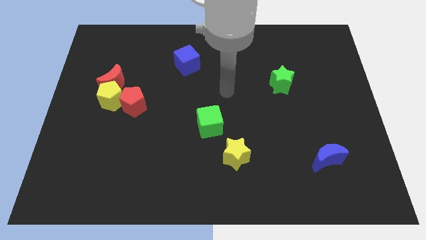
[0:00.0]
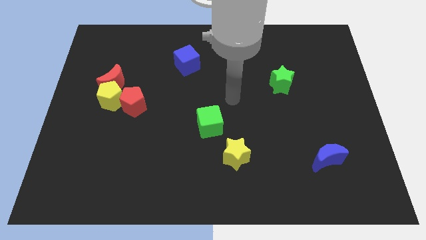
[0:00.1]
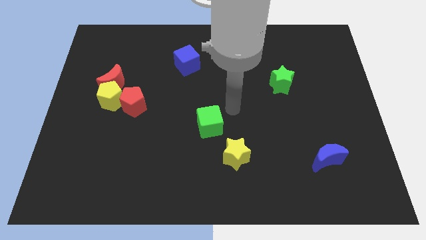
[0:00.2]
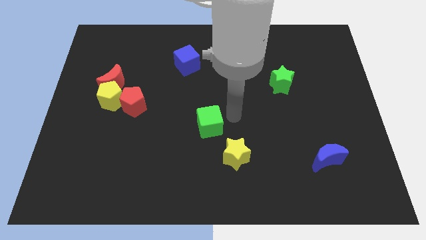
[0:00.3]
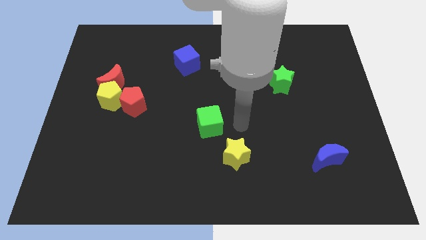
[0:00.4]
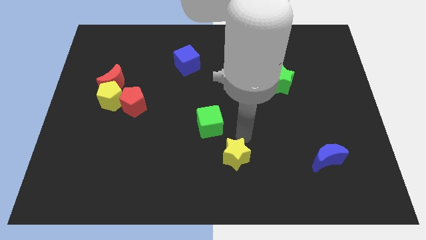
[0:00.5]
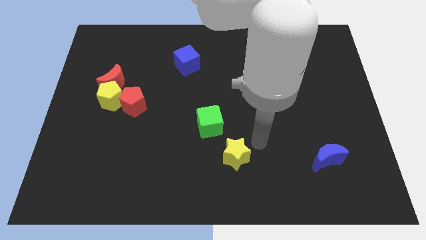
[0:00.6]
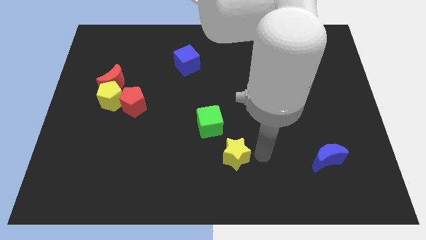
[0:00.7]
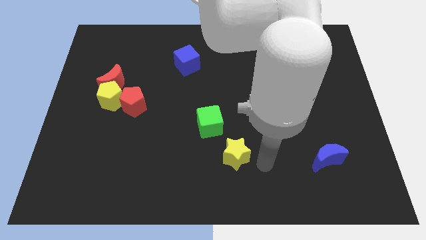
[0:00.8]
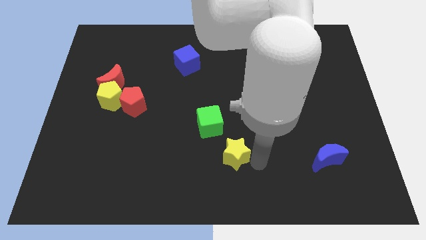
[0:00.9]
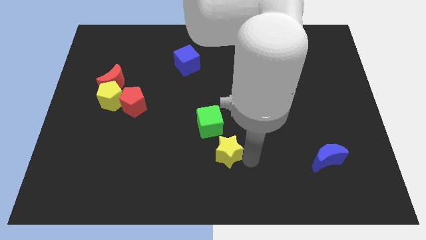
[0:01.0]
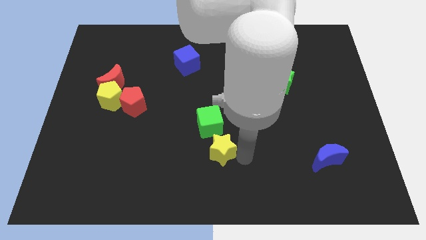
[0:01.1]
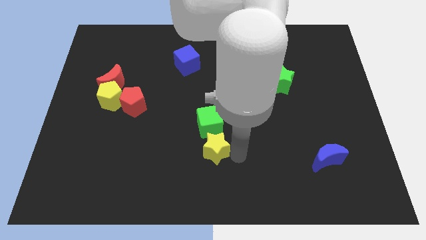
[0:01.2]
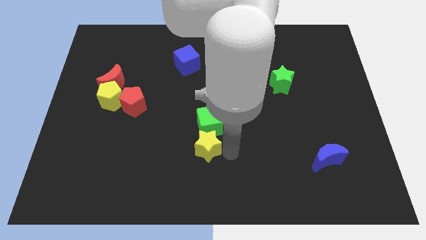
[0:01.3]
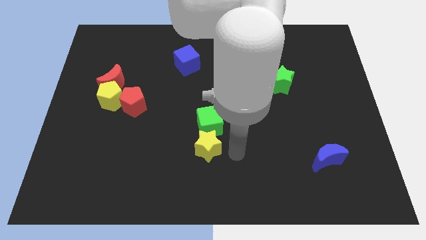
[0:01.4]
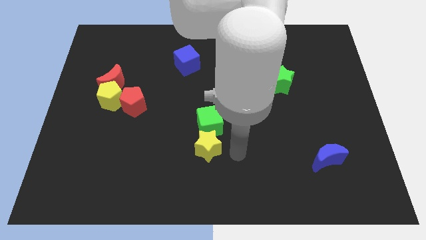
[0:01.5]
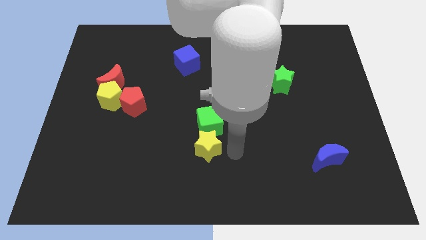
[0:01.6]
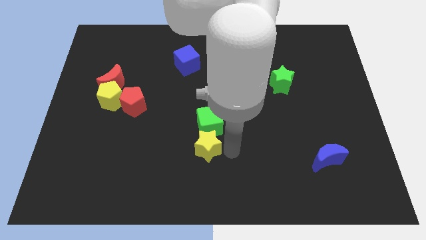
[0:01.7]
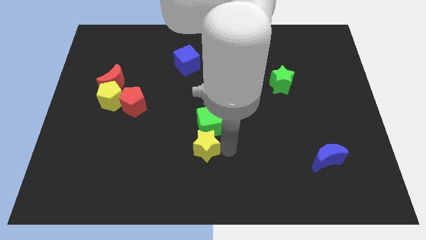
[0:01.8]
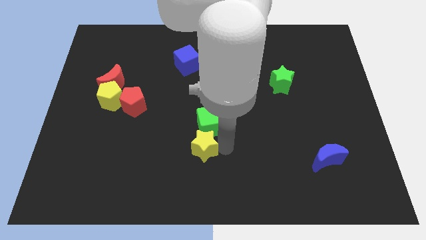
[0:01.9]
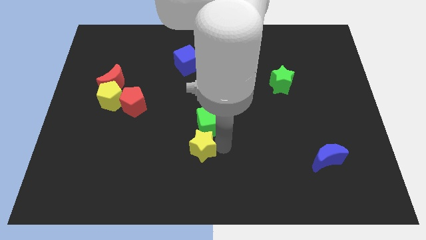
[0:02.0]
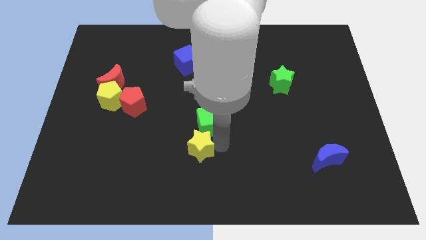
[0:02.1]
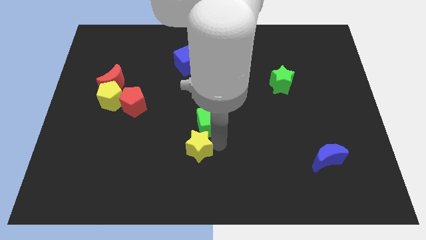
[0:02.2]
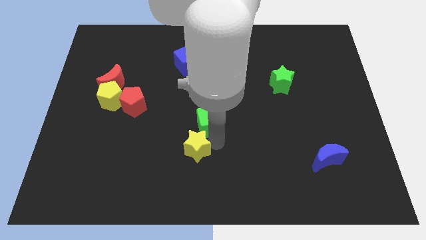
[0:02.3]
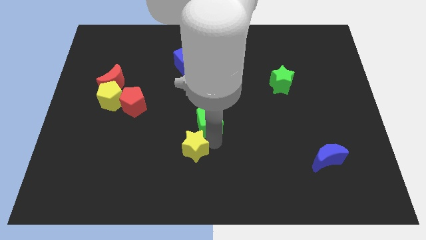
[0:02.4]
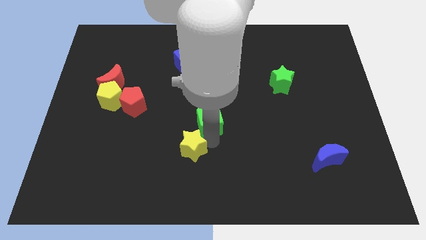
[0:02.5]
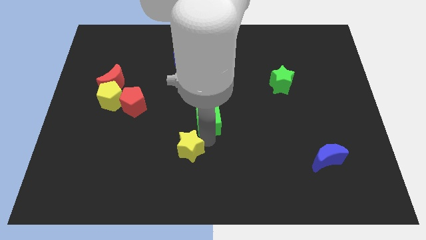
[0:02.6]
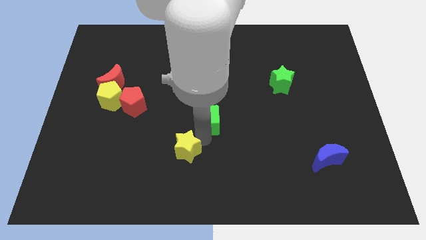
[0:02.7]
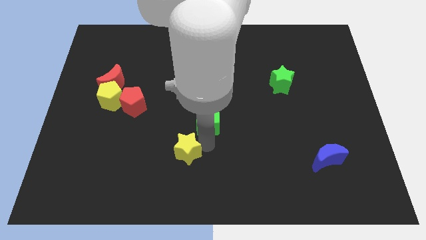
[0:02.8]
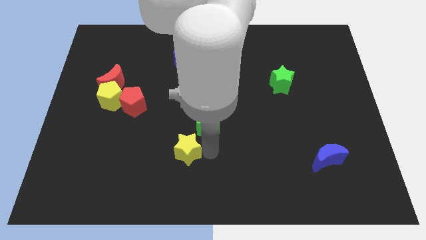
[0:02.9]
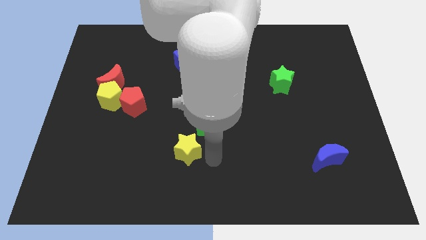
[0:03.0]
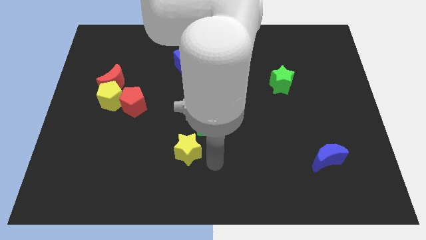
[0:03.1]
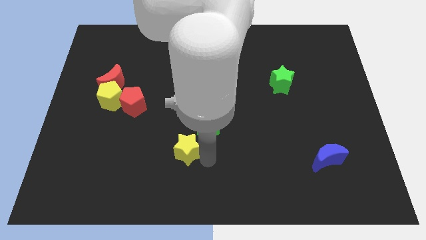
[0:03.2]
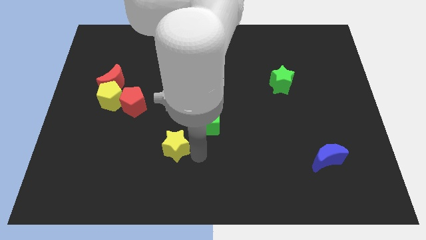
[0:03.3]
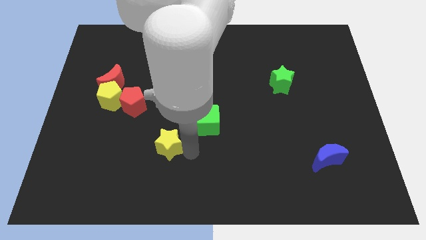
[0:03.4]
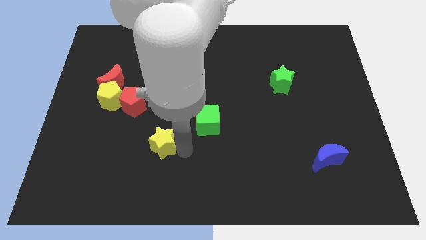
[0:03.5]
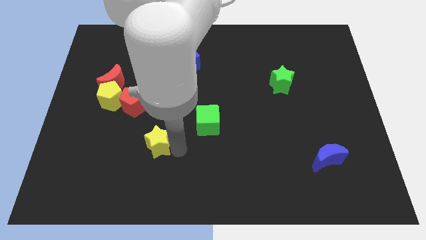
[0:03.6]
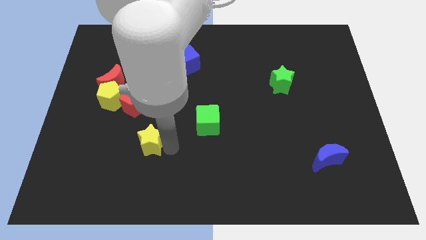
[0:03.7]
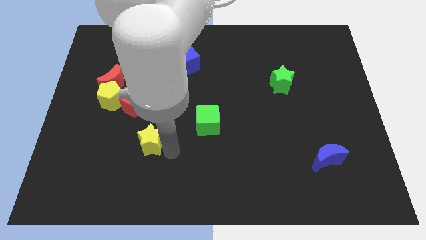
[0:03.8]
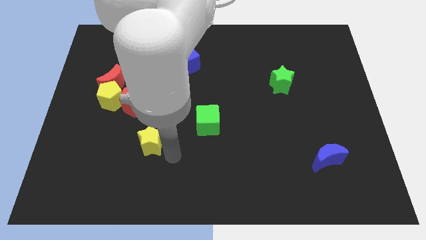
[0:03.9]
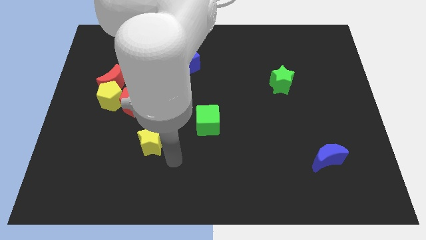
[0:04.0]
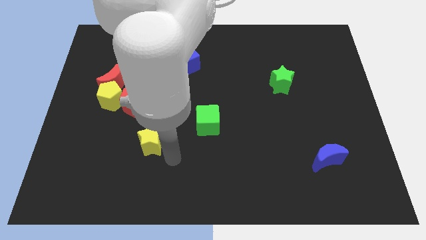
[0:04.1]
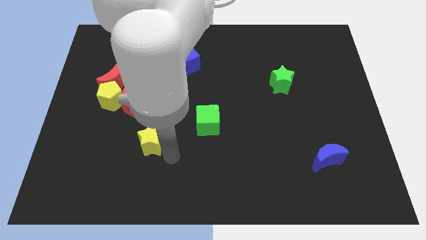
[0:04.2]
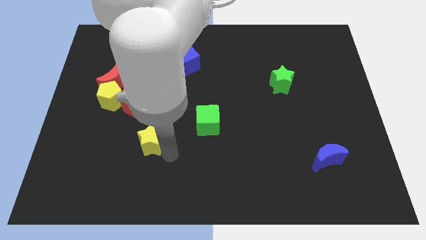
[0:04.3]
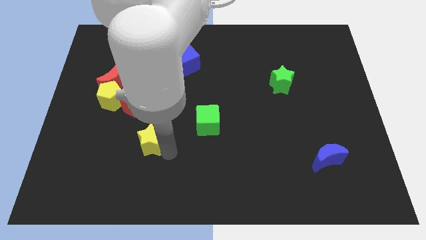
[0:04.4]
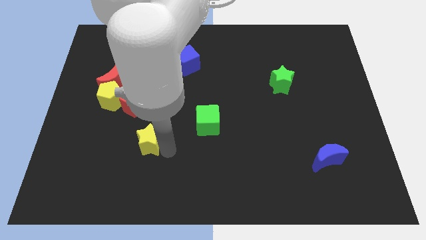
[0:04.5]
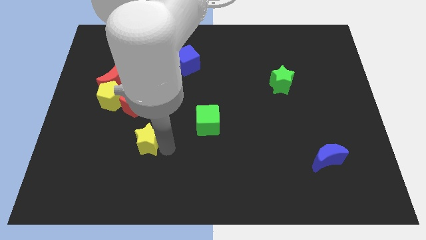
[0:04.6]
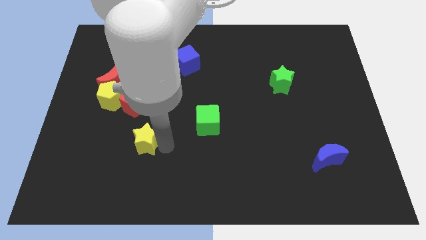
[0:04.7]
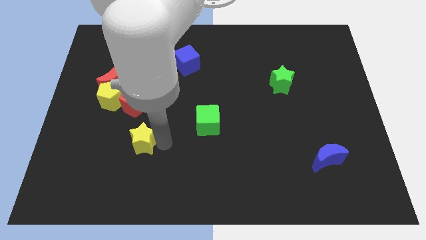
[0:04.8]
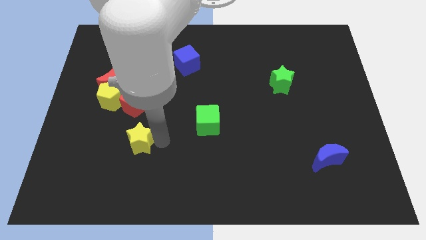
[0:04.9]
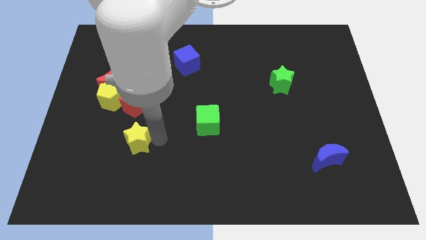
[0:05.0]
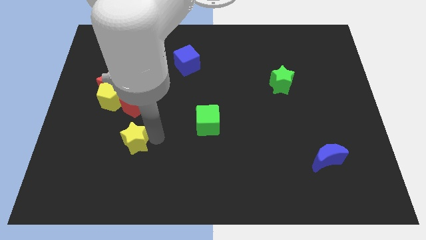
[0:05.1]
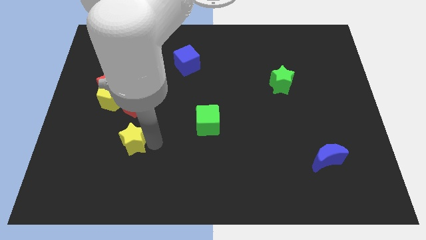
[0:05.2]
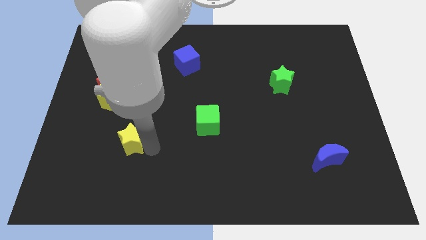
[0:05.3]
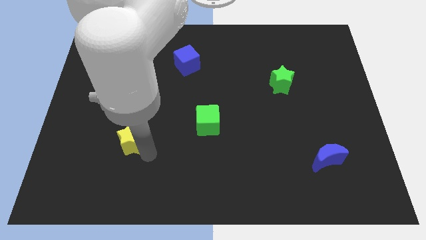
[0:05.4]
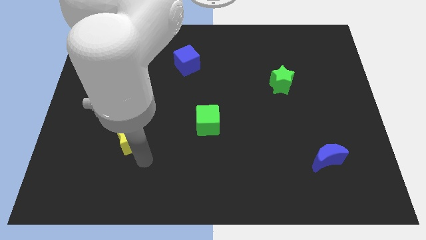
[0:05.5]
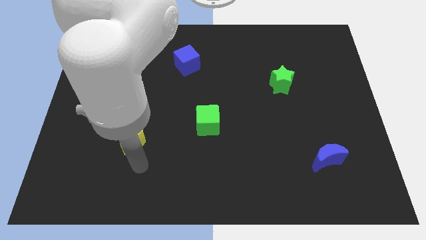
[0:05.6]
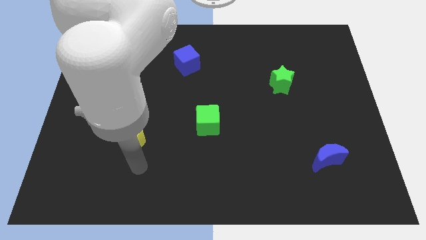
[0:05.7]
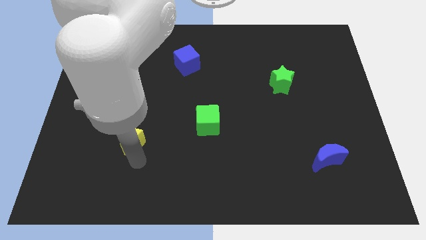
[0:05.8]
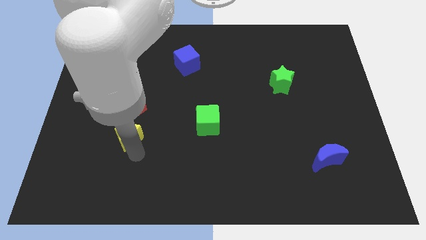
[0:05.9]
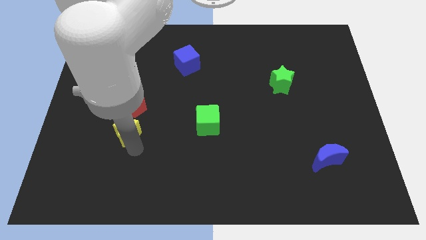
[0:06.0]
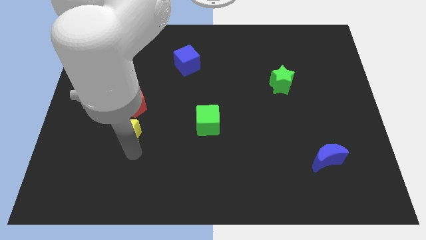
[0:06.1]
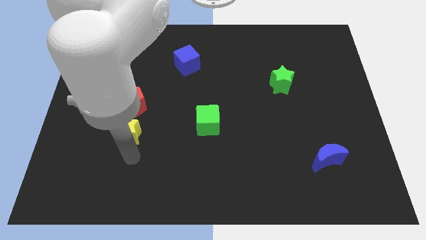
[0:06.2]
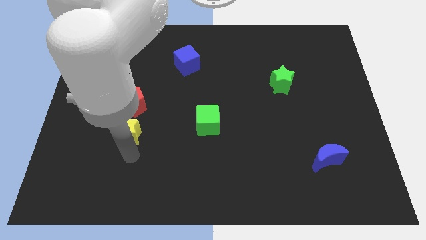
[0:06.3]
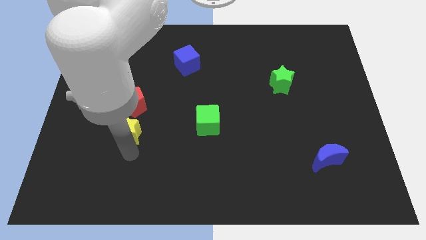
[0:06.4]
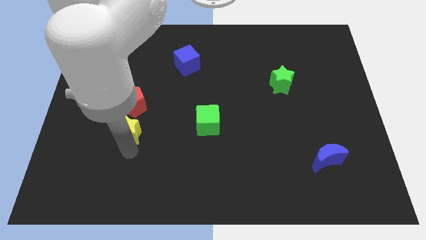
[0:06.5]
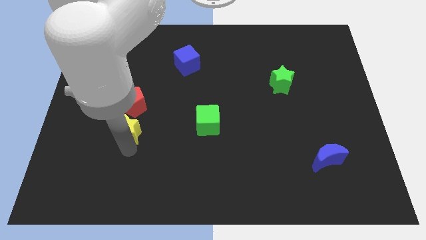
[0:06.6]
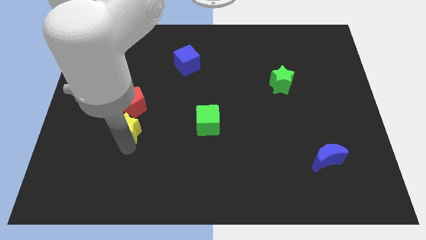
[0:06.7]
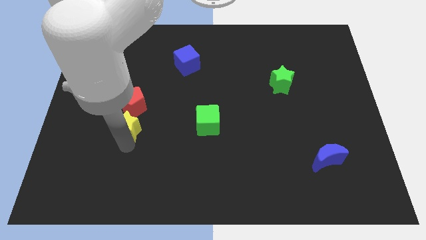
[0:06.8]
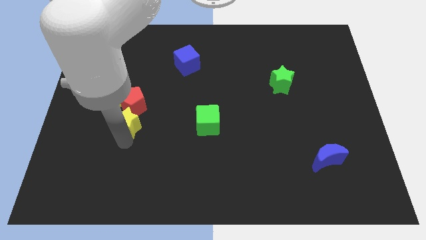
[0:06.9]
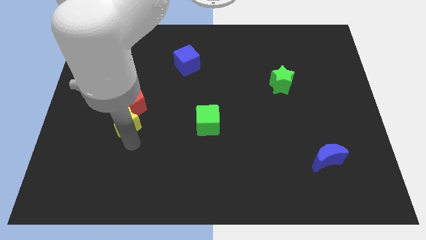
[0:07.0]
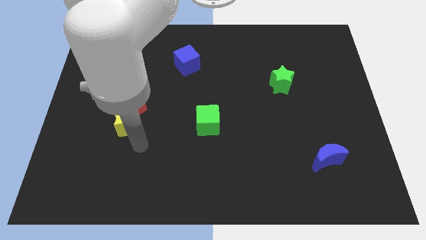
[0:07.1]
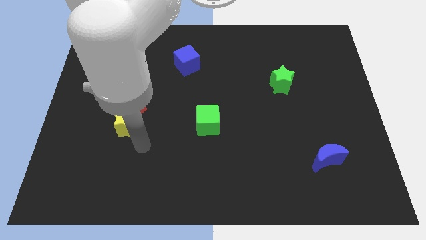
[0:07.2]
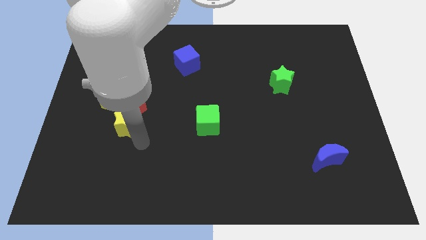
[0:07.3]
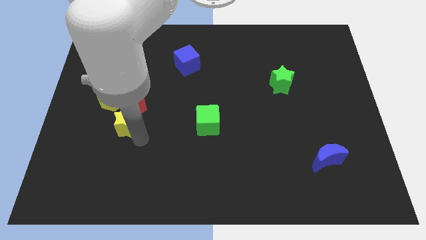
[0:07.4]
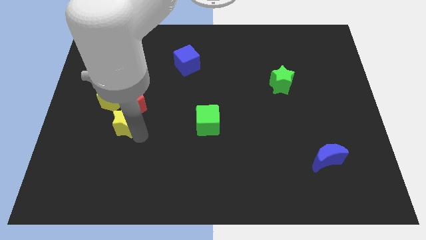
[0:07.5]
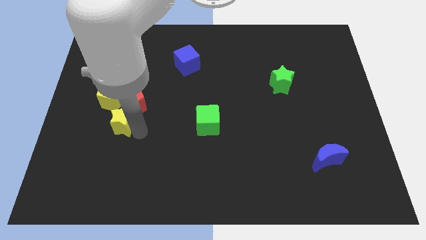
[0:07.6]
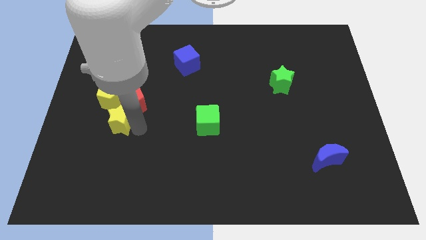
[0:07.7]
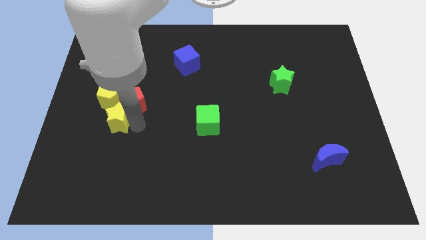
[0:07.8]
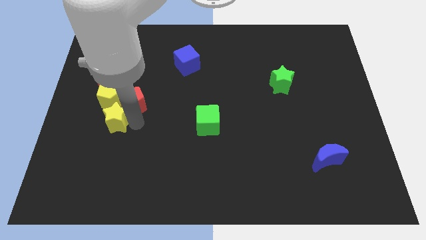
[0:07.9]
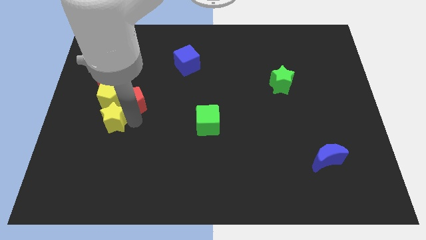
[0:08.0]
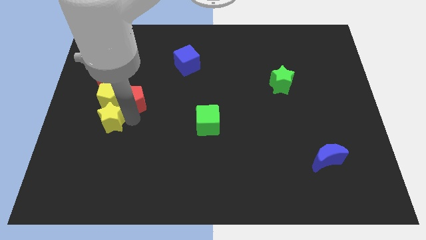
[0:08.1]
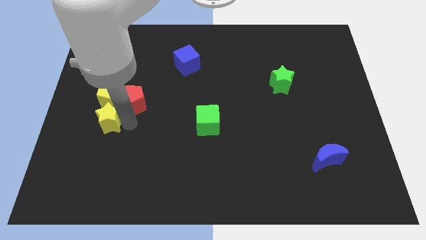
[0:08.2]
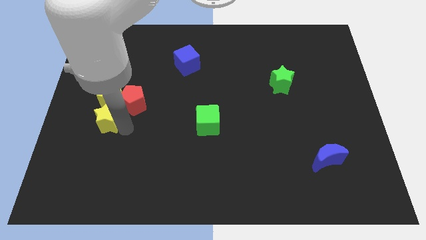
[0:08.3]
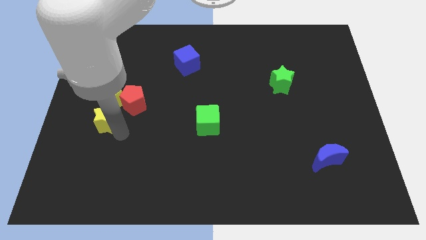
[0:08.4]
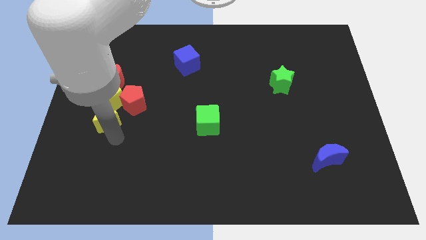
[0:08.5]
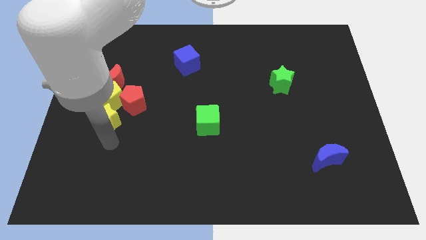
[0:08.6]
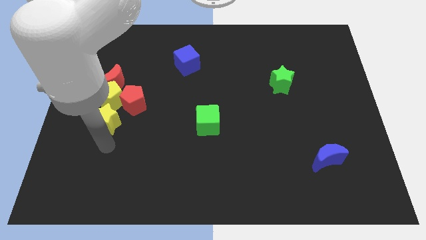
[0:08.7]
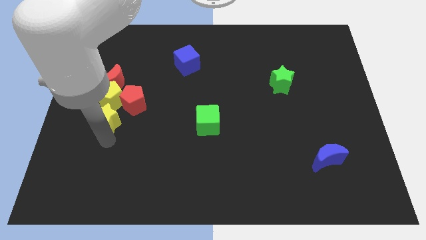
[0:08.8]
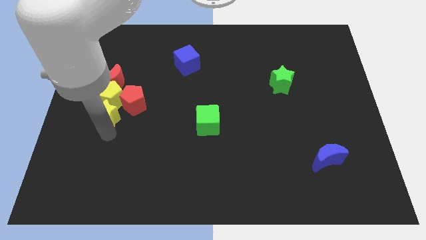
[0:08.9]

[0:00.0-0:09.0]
slide the yellow star next to the yellow pentagon
